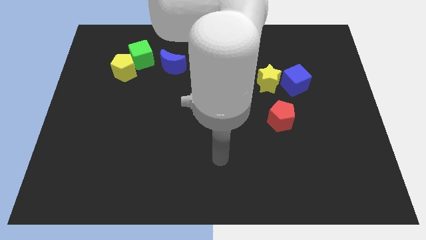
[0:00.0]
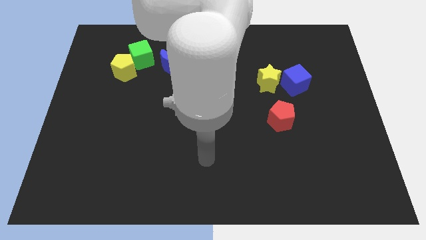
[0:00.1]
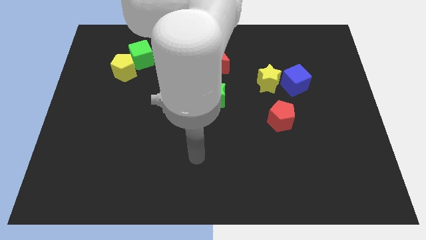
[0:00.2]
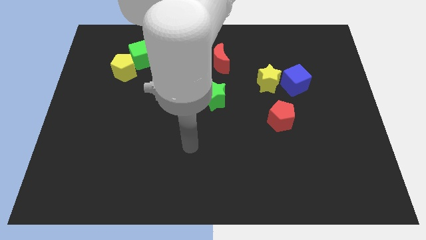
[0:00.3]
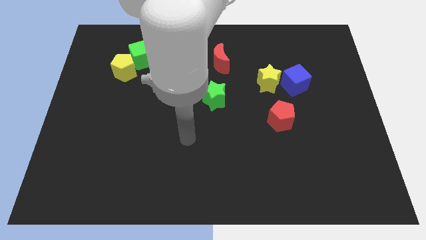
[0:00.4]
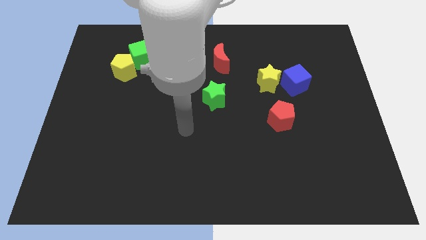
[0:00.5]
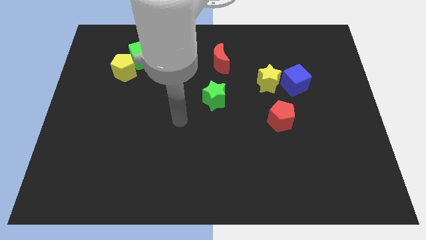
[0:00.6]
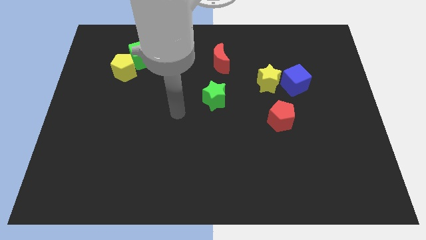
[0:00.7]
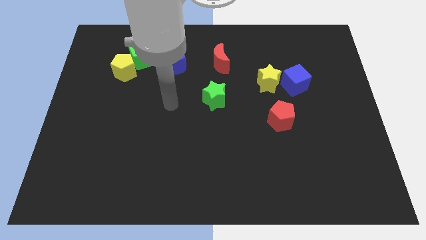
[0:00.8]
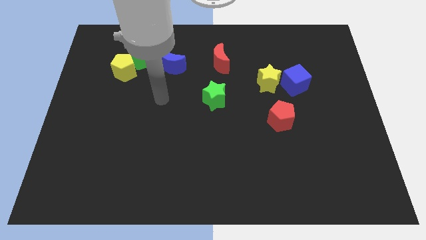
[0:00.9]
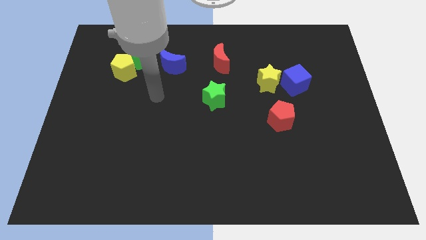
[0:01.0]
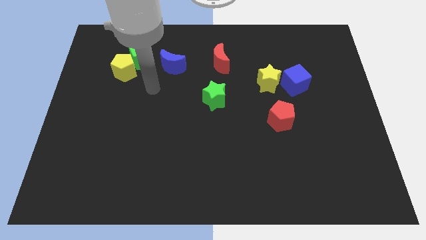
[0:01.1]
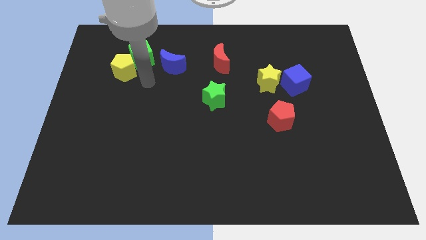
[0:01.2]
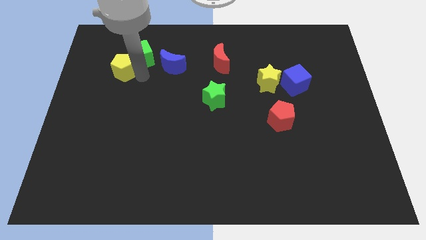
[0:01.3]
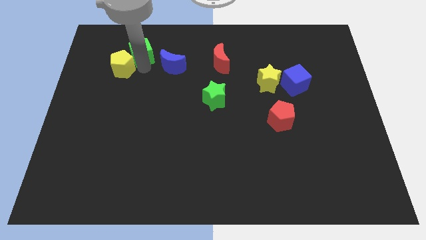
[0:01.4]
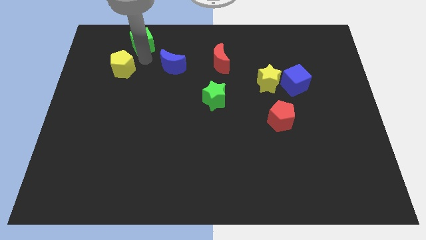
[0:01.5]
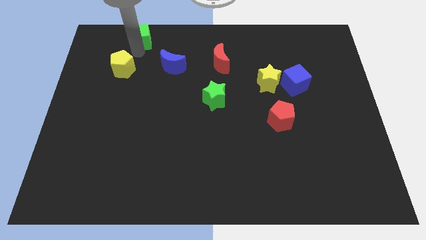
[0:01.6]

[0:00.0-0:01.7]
pull the yellow pentagon apart from the green cube

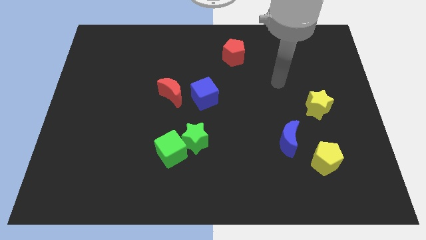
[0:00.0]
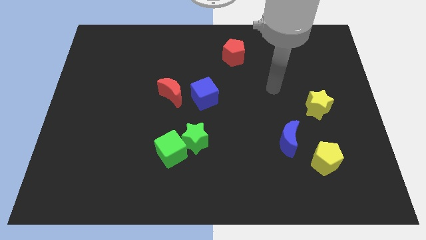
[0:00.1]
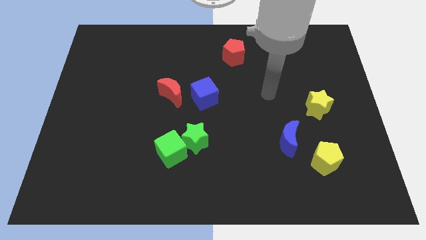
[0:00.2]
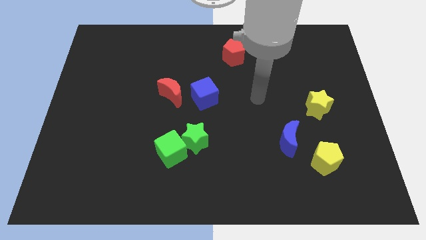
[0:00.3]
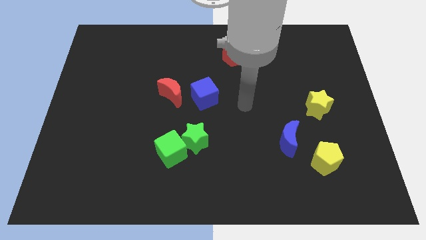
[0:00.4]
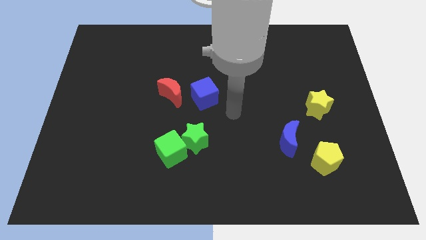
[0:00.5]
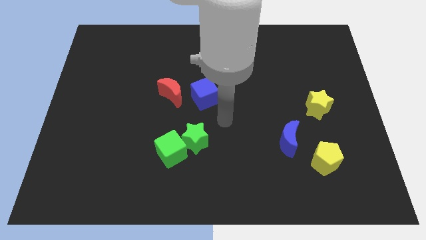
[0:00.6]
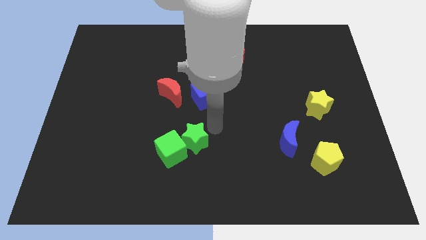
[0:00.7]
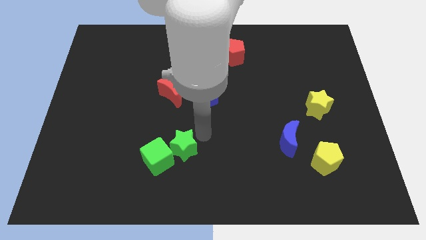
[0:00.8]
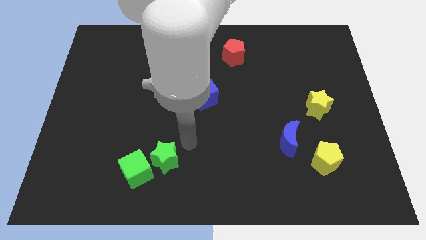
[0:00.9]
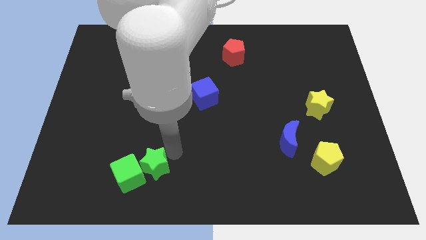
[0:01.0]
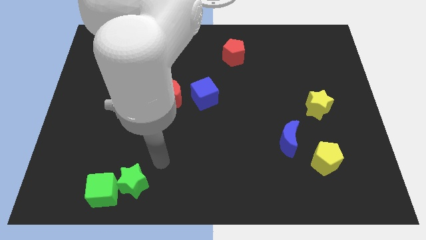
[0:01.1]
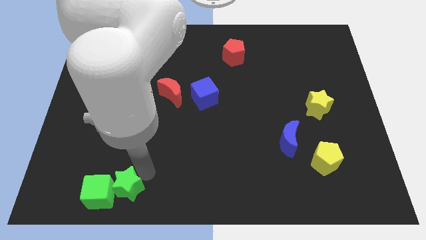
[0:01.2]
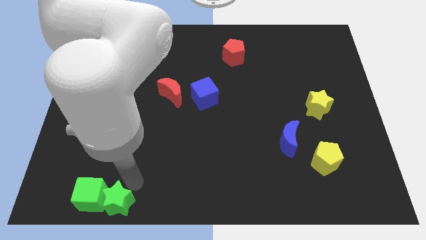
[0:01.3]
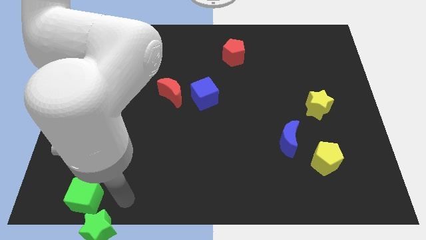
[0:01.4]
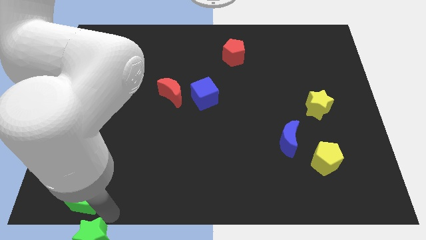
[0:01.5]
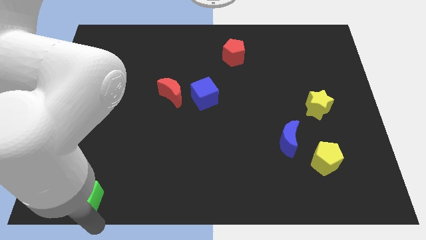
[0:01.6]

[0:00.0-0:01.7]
move the green cube away from the green star

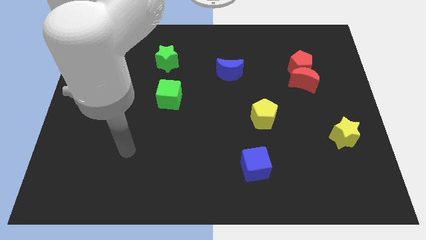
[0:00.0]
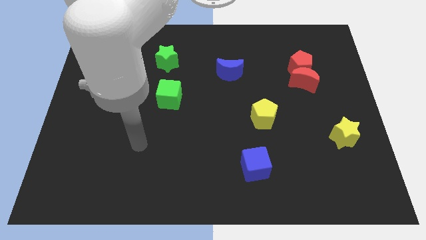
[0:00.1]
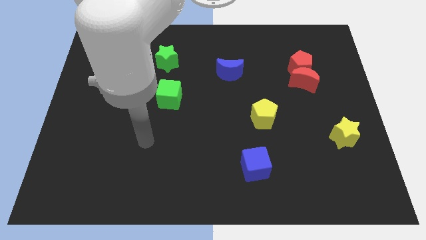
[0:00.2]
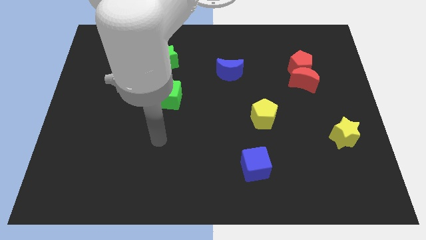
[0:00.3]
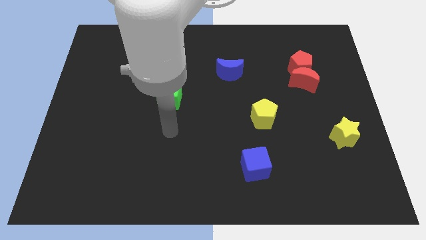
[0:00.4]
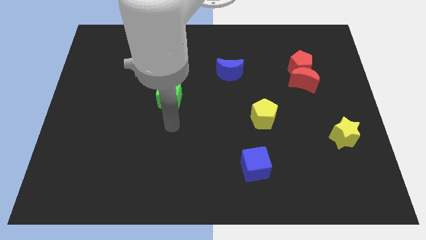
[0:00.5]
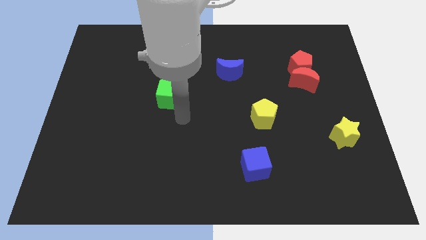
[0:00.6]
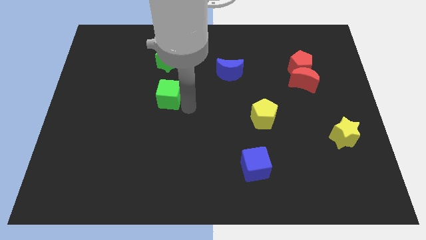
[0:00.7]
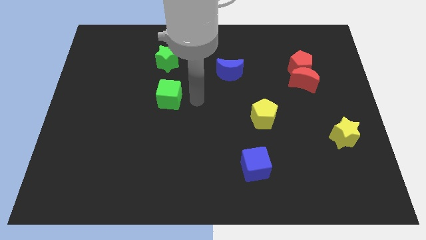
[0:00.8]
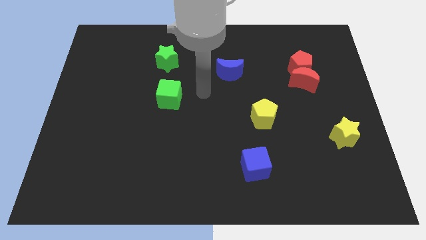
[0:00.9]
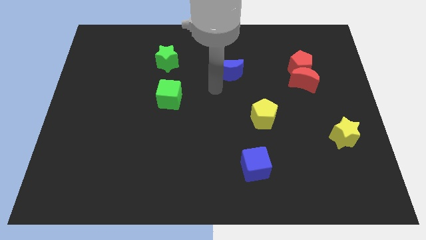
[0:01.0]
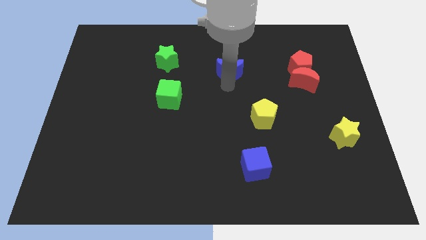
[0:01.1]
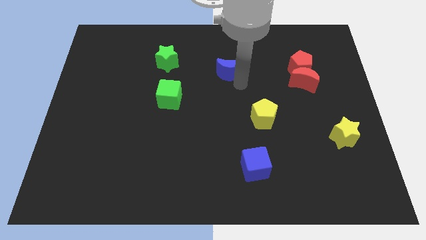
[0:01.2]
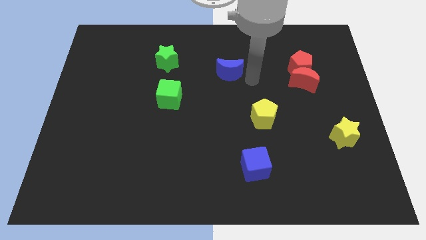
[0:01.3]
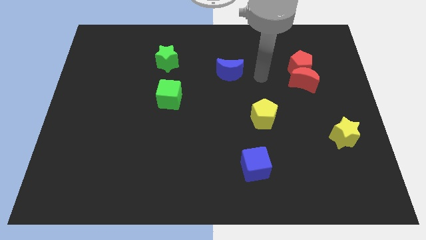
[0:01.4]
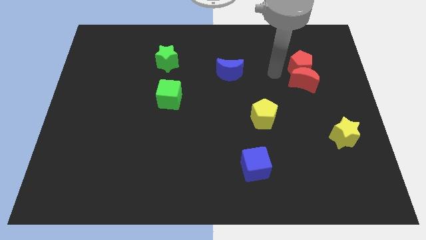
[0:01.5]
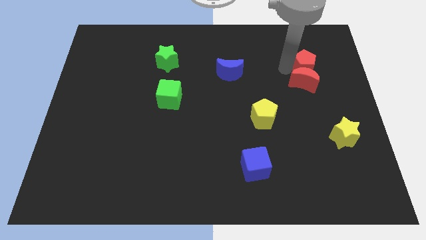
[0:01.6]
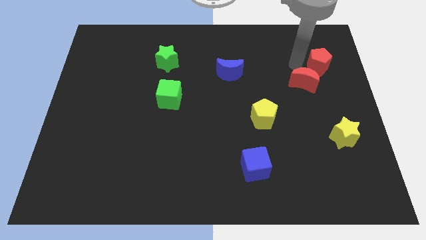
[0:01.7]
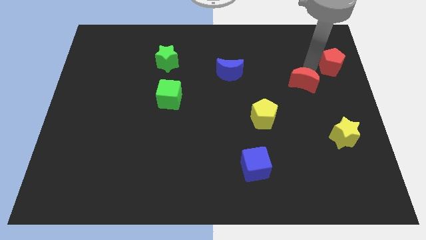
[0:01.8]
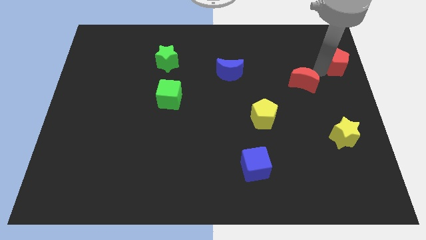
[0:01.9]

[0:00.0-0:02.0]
move the red moon away from the red pentagon

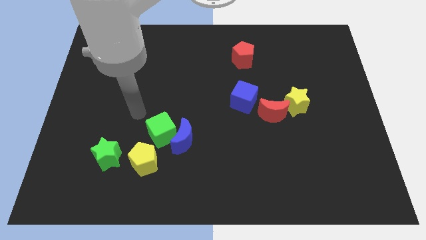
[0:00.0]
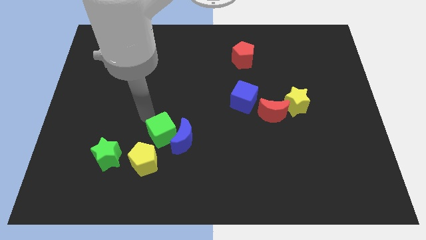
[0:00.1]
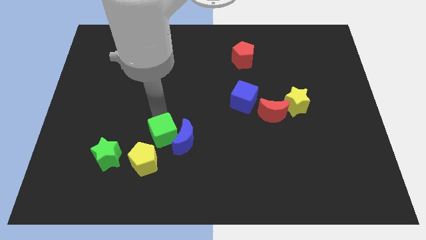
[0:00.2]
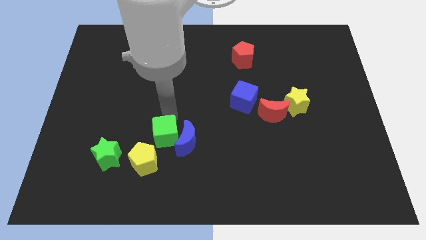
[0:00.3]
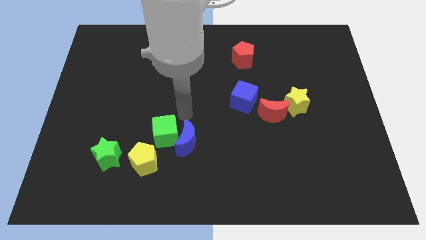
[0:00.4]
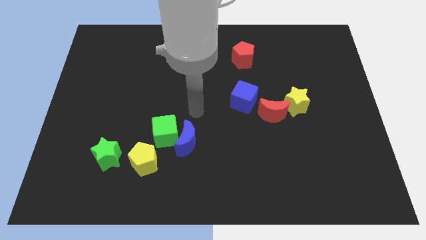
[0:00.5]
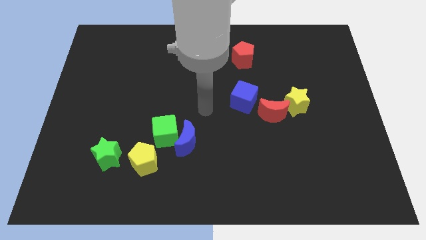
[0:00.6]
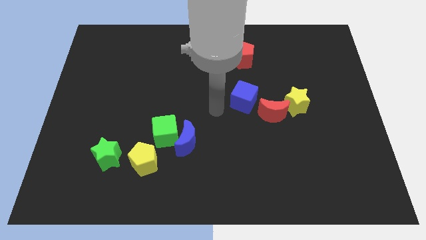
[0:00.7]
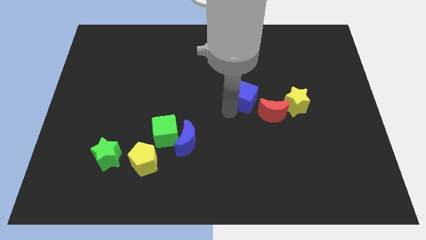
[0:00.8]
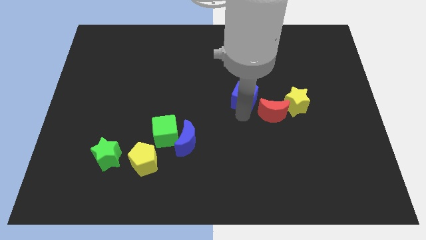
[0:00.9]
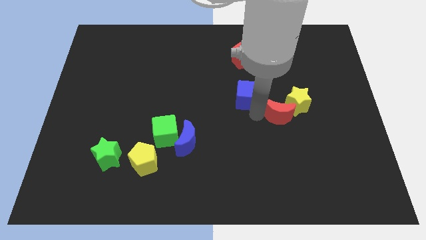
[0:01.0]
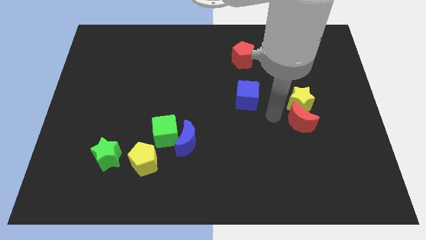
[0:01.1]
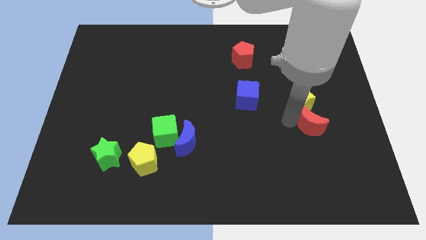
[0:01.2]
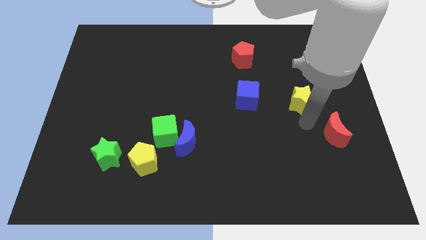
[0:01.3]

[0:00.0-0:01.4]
move the yellow star away from the red moon

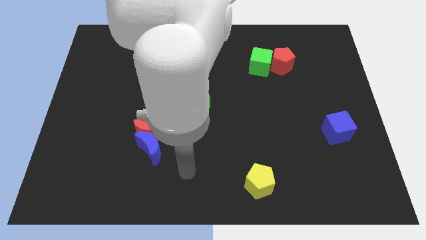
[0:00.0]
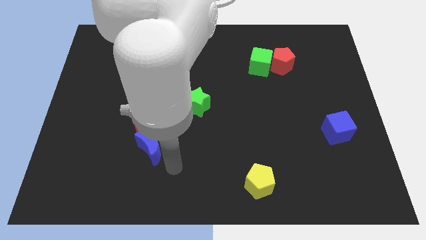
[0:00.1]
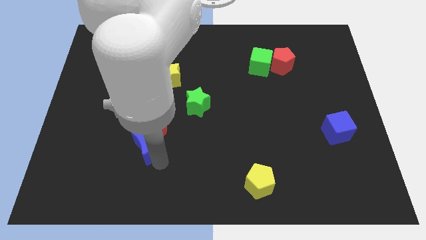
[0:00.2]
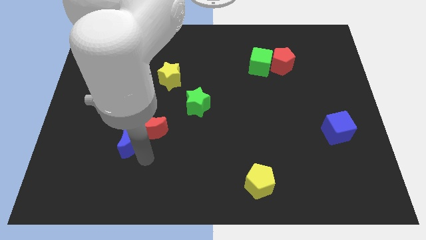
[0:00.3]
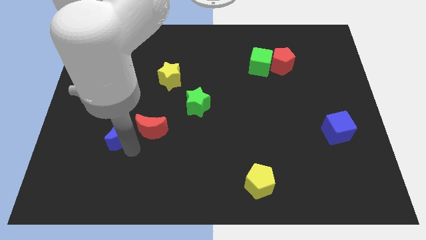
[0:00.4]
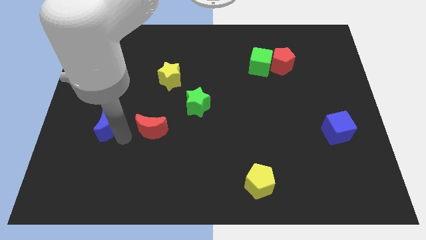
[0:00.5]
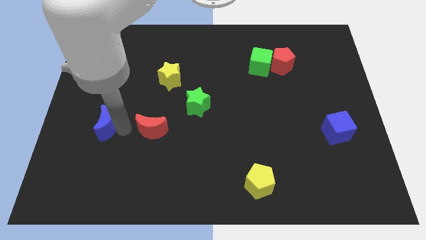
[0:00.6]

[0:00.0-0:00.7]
move the red moon away from the blue moon

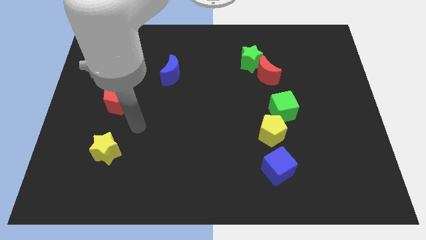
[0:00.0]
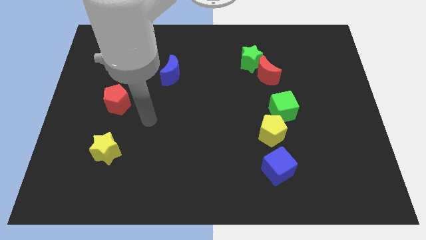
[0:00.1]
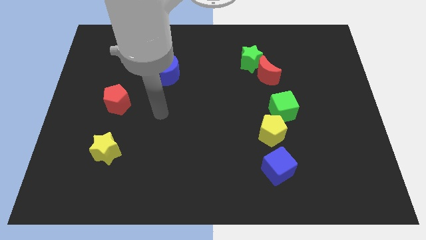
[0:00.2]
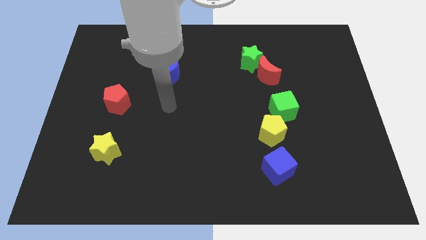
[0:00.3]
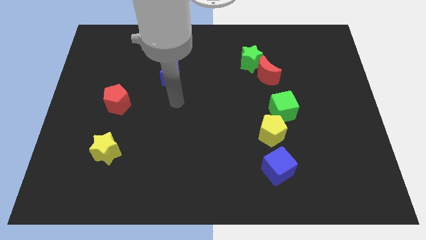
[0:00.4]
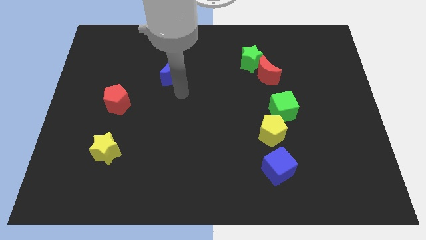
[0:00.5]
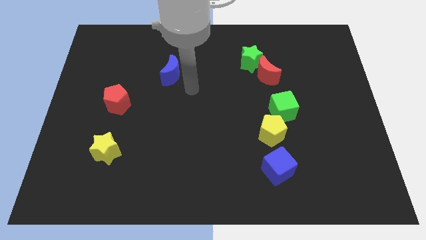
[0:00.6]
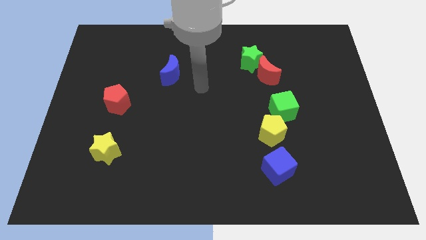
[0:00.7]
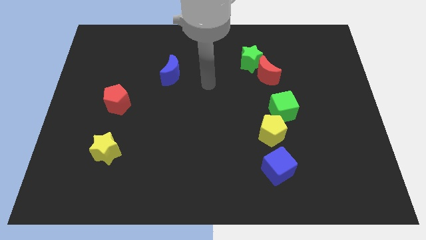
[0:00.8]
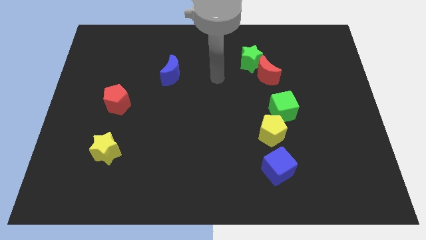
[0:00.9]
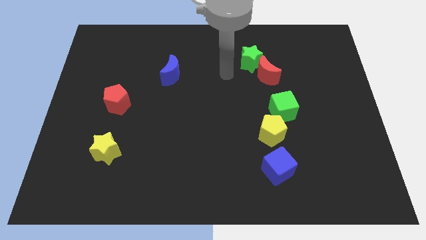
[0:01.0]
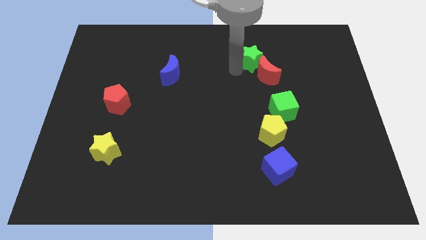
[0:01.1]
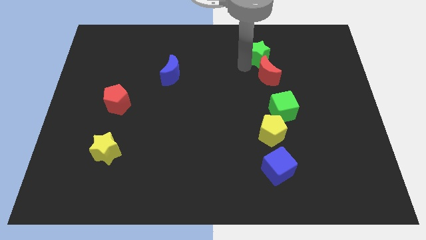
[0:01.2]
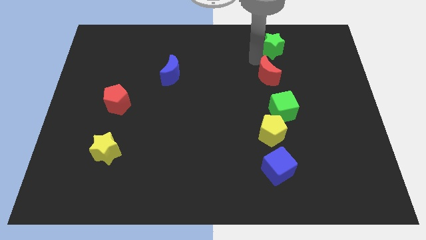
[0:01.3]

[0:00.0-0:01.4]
pull the red moon apart from the green star

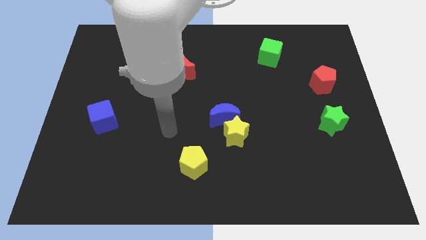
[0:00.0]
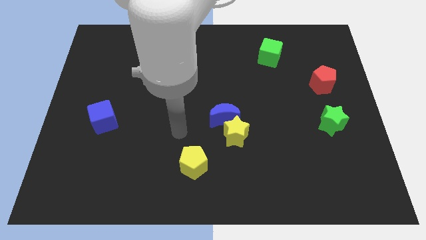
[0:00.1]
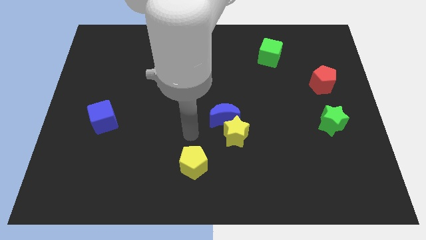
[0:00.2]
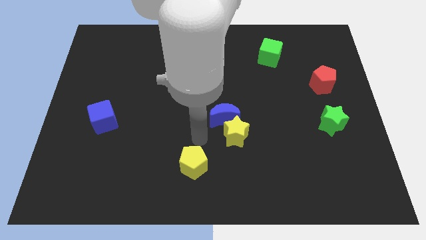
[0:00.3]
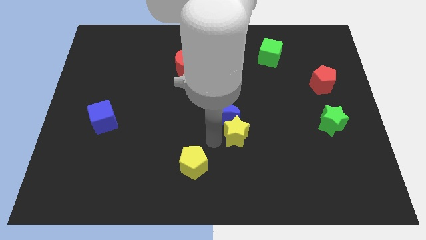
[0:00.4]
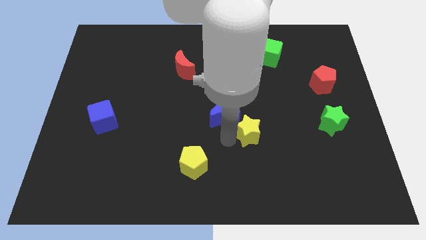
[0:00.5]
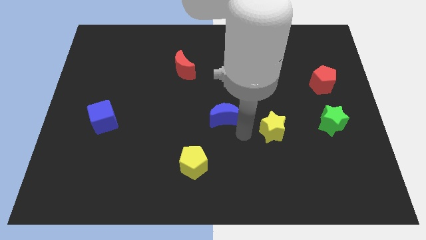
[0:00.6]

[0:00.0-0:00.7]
separate the blue moon from the yellow star
